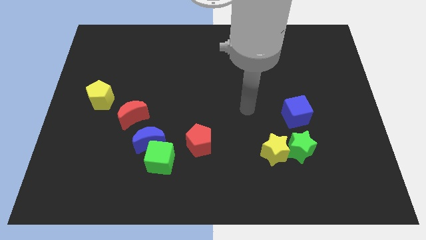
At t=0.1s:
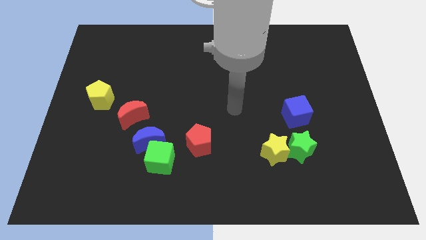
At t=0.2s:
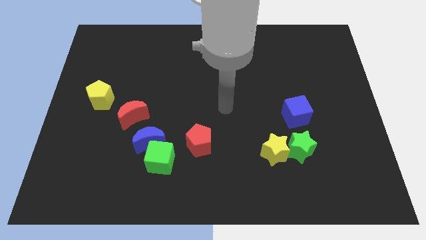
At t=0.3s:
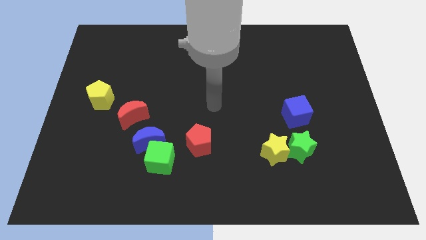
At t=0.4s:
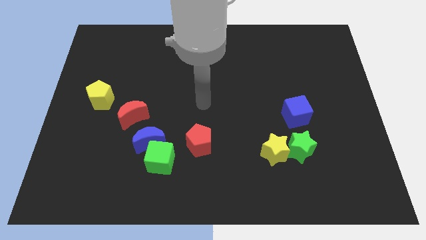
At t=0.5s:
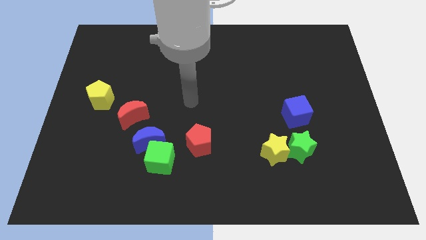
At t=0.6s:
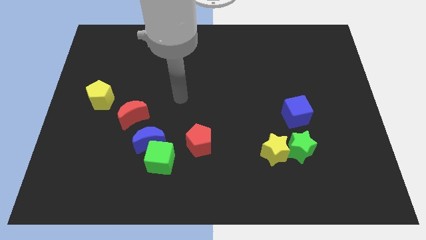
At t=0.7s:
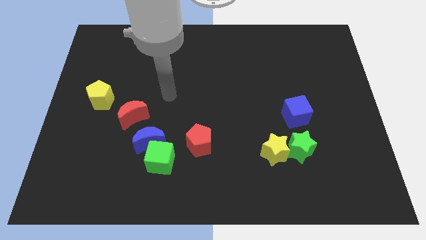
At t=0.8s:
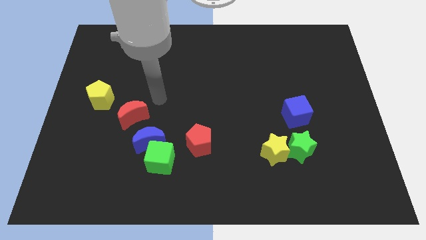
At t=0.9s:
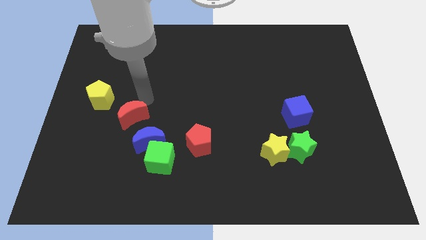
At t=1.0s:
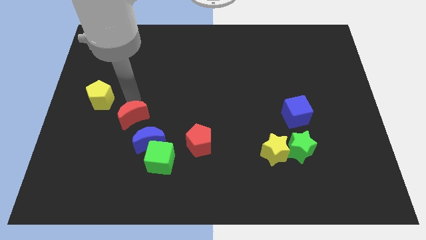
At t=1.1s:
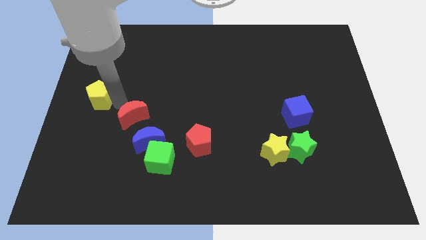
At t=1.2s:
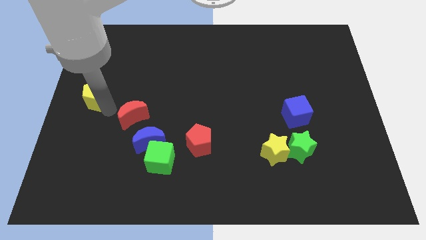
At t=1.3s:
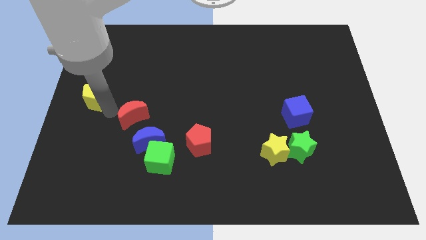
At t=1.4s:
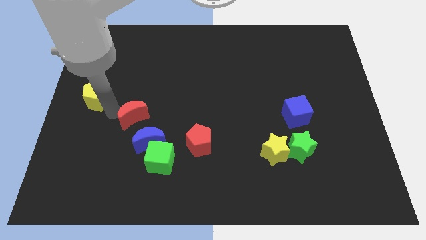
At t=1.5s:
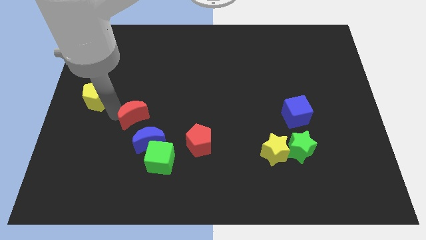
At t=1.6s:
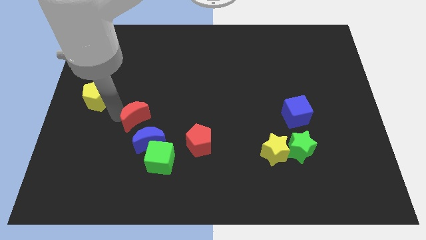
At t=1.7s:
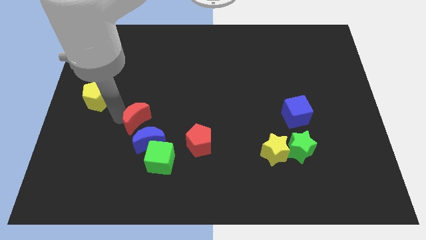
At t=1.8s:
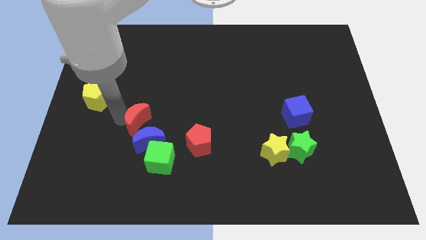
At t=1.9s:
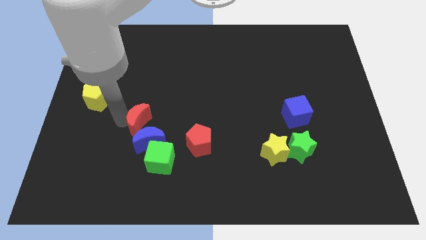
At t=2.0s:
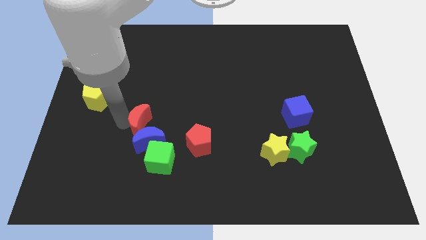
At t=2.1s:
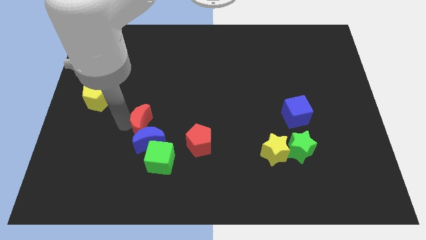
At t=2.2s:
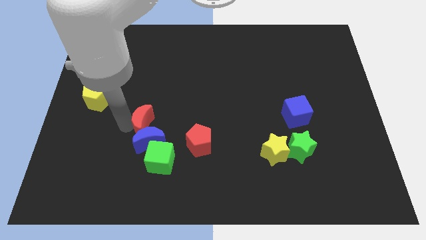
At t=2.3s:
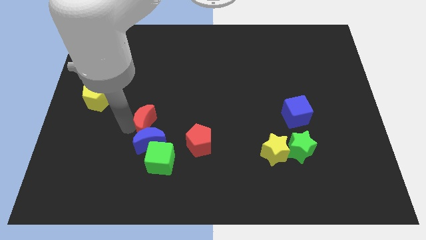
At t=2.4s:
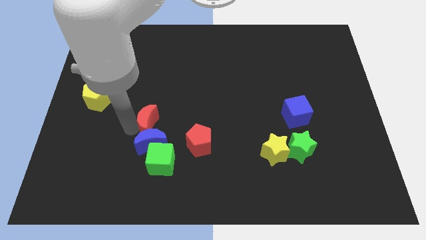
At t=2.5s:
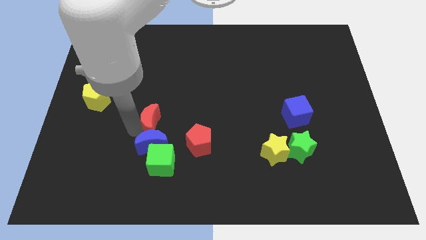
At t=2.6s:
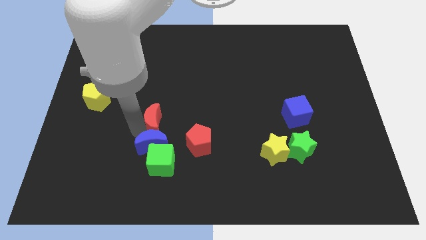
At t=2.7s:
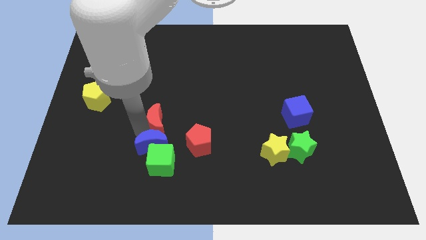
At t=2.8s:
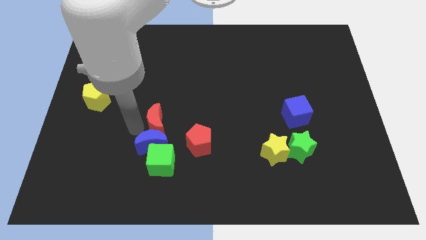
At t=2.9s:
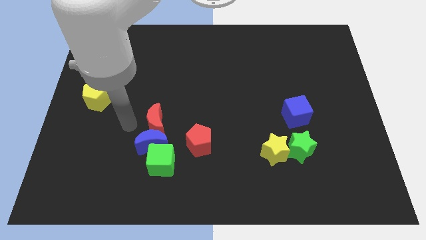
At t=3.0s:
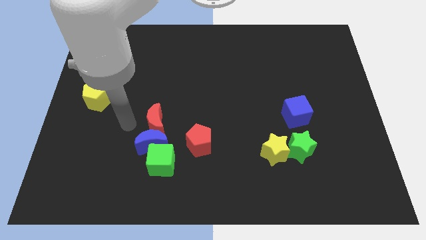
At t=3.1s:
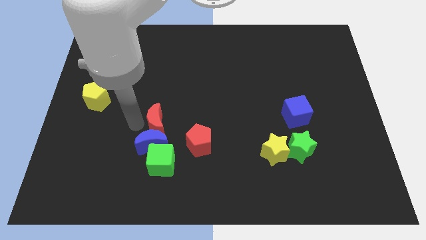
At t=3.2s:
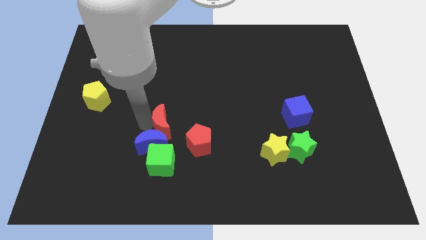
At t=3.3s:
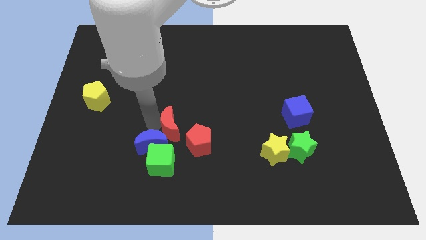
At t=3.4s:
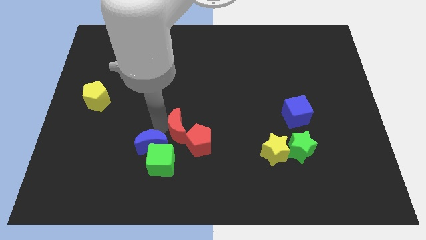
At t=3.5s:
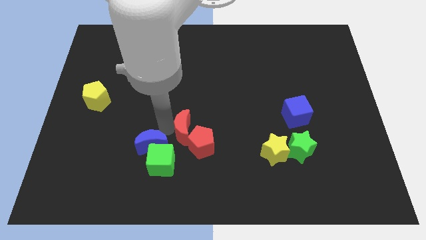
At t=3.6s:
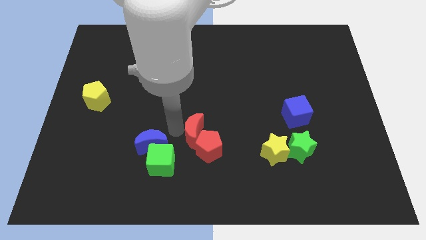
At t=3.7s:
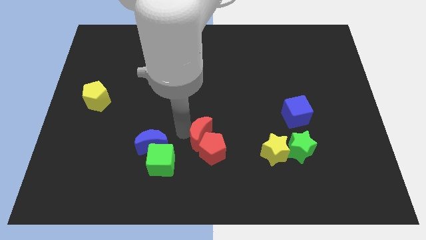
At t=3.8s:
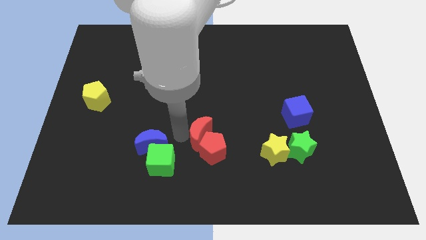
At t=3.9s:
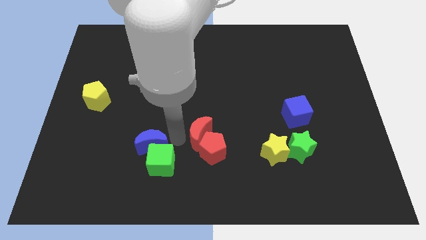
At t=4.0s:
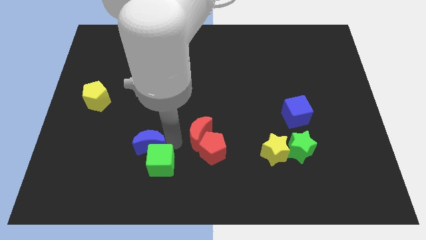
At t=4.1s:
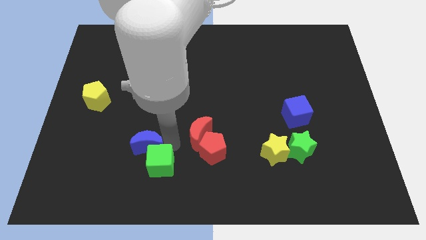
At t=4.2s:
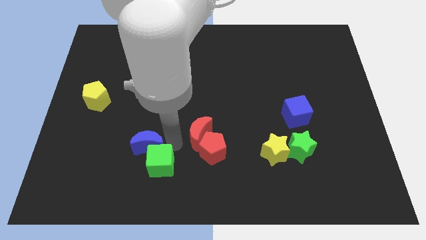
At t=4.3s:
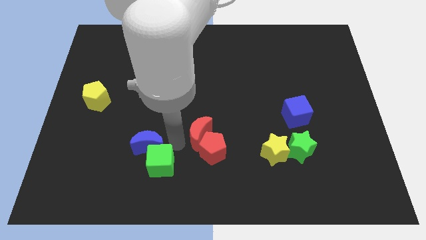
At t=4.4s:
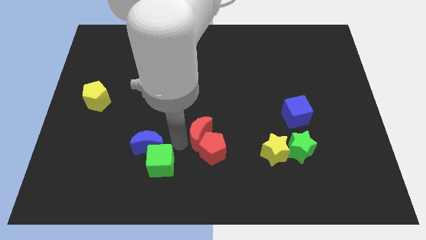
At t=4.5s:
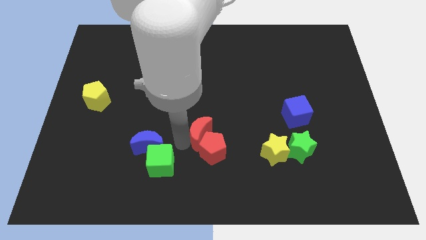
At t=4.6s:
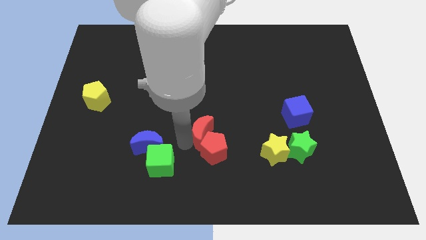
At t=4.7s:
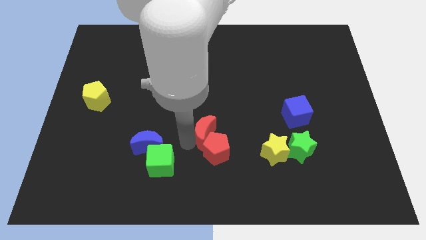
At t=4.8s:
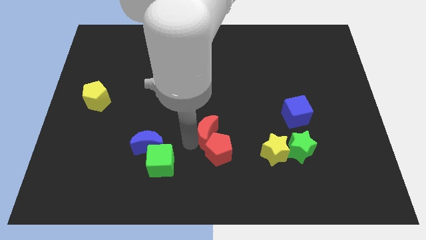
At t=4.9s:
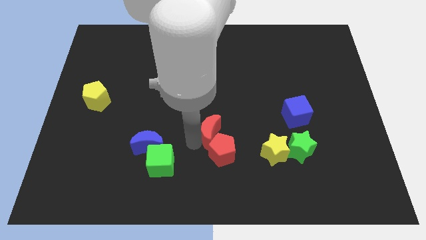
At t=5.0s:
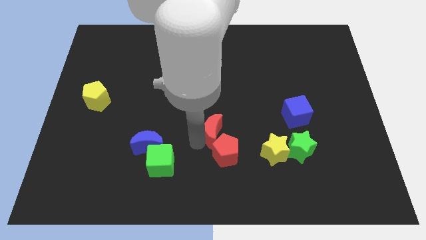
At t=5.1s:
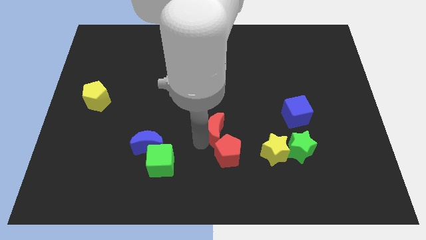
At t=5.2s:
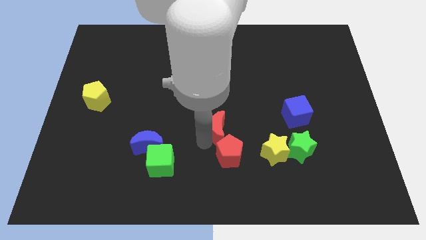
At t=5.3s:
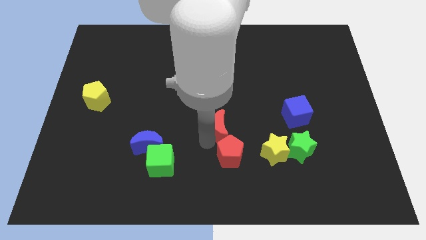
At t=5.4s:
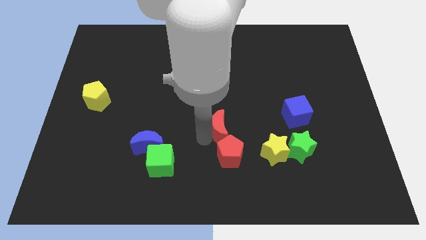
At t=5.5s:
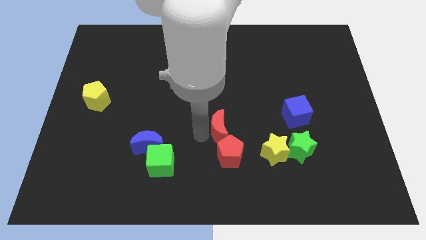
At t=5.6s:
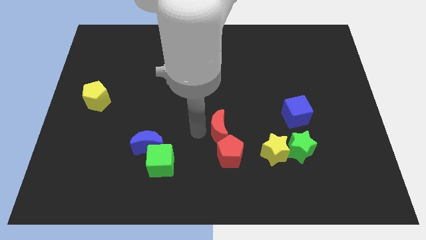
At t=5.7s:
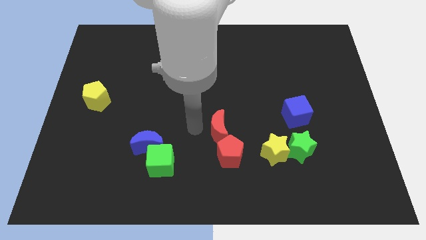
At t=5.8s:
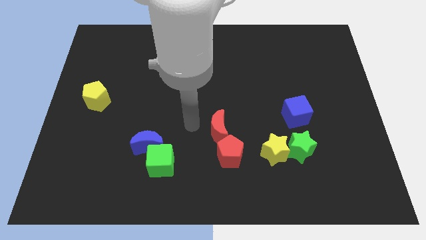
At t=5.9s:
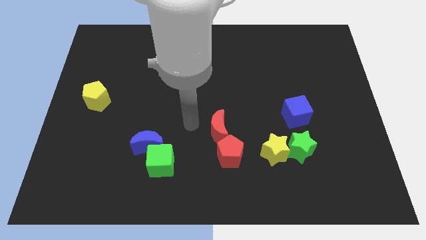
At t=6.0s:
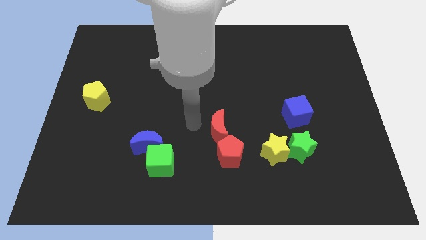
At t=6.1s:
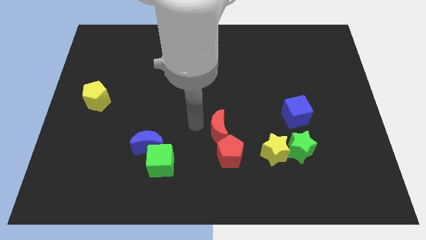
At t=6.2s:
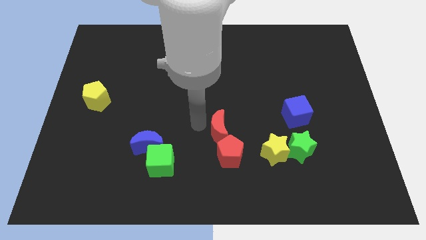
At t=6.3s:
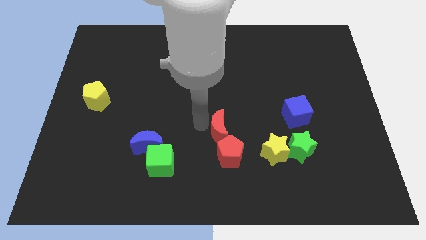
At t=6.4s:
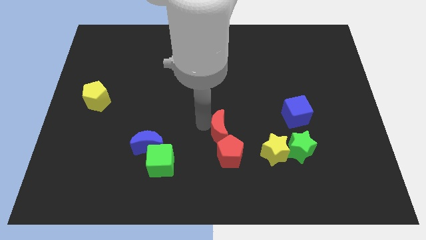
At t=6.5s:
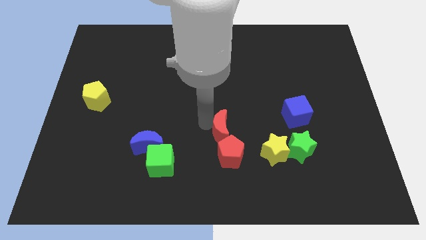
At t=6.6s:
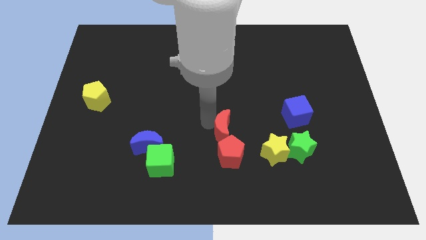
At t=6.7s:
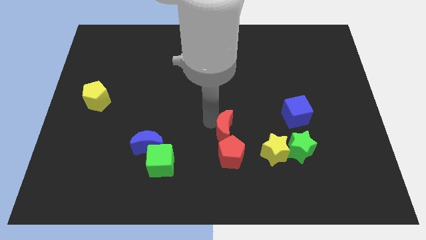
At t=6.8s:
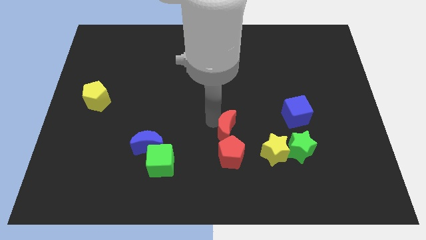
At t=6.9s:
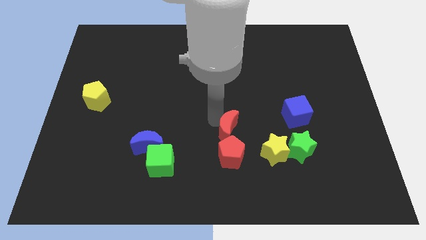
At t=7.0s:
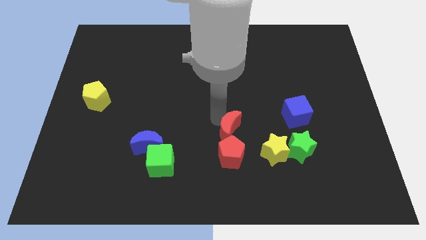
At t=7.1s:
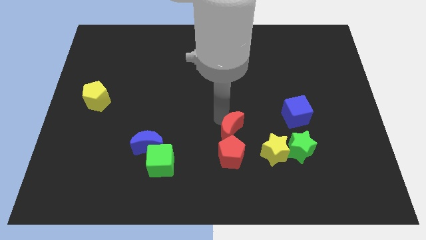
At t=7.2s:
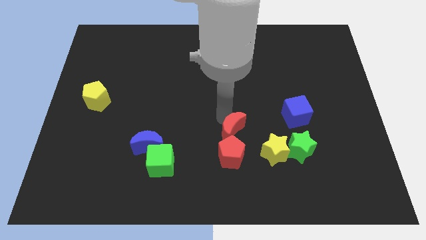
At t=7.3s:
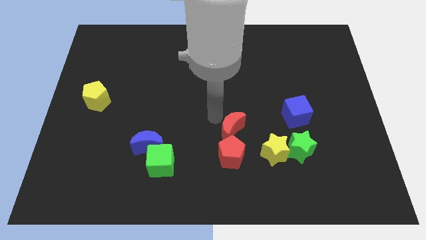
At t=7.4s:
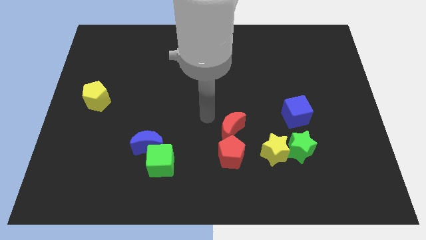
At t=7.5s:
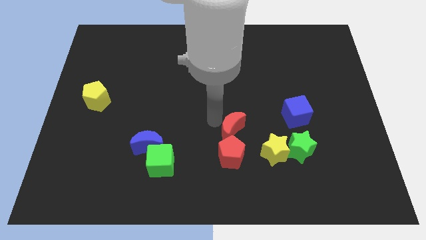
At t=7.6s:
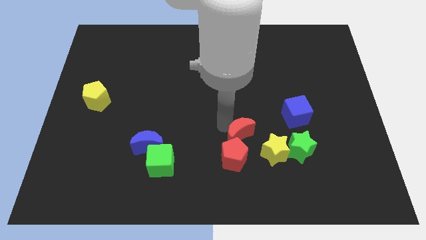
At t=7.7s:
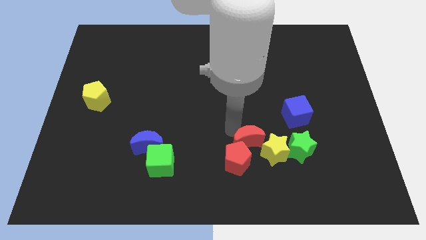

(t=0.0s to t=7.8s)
move the red moon to the yellow star
